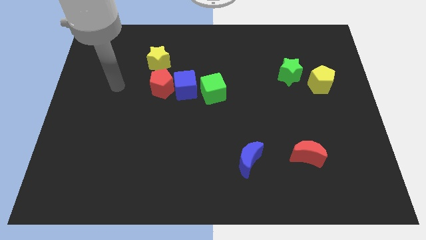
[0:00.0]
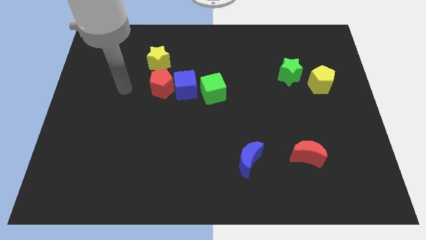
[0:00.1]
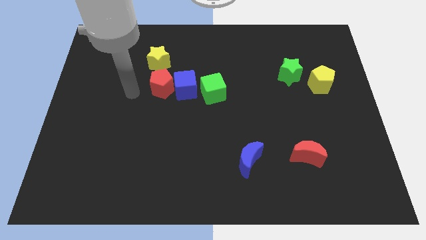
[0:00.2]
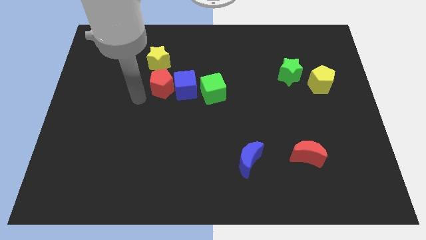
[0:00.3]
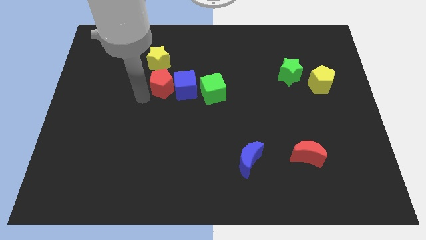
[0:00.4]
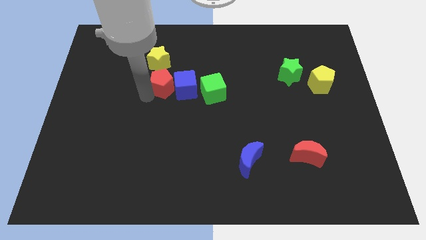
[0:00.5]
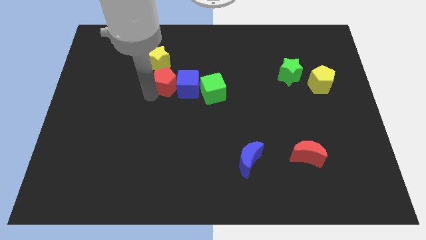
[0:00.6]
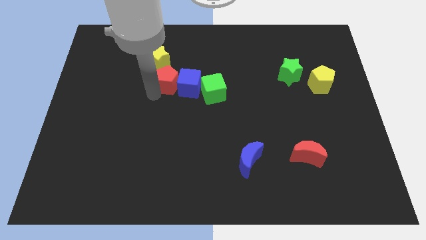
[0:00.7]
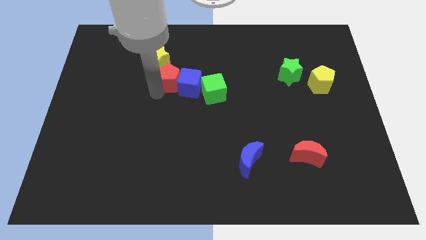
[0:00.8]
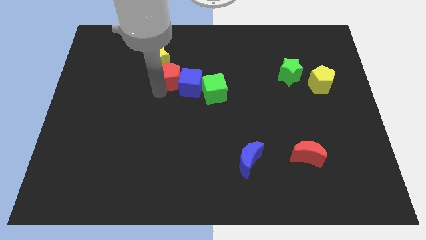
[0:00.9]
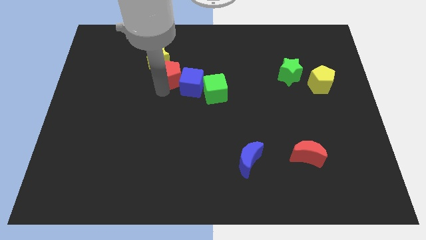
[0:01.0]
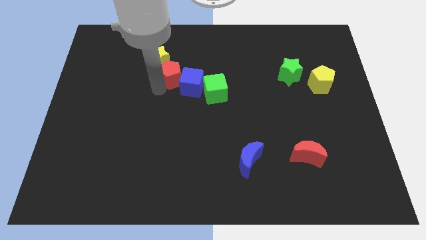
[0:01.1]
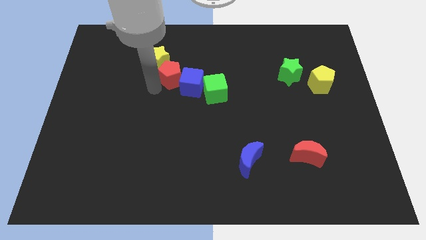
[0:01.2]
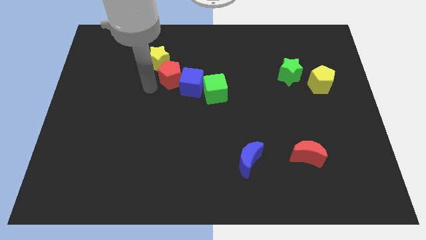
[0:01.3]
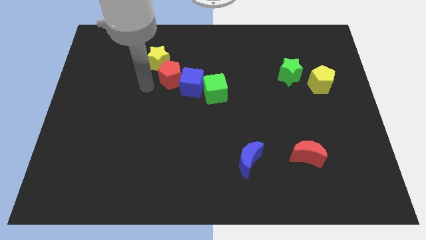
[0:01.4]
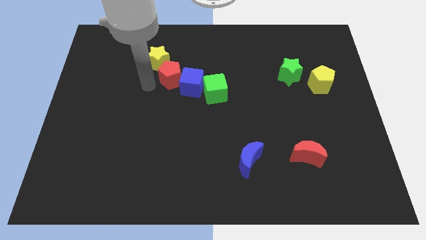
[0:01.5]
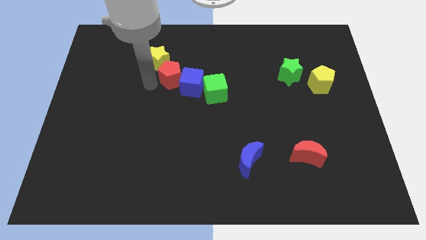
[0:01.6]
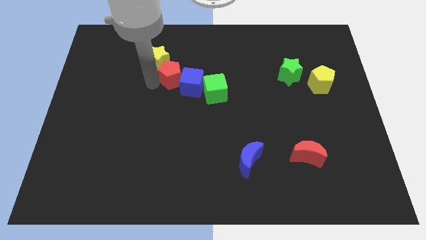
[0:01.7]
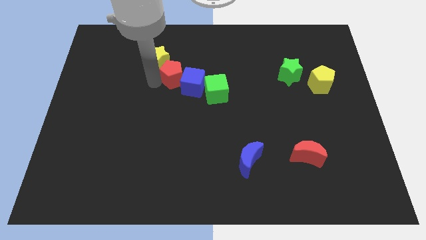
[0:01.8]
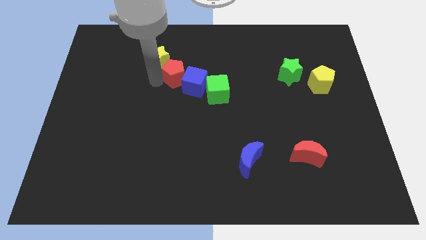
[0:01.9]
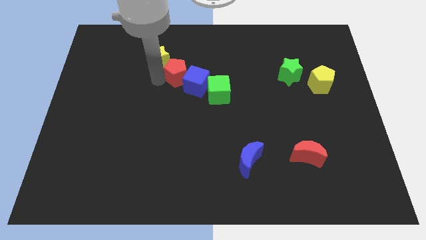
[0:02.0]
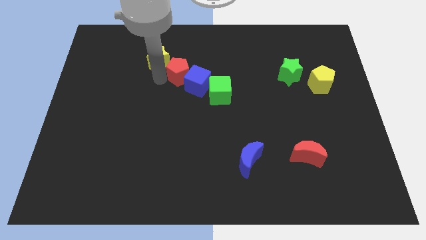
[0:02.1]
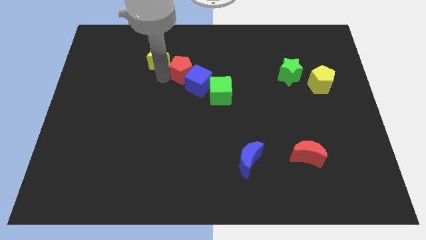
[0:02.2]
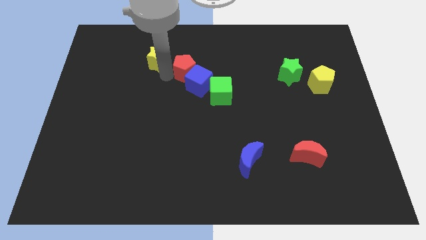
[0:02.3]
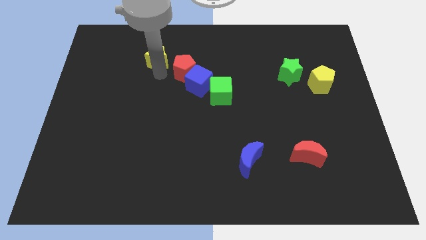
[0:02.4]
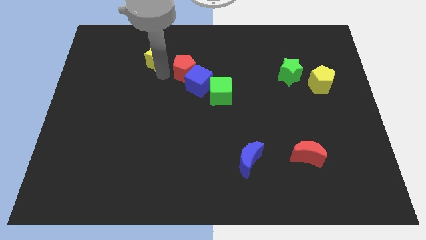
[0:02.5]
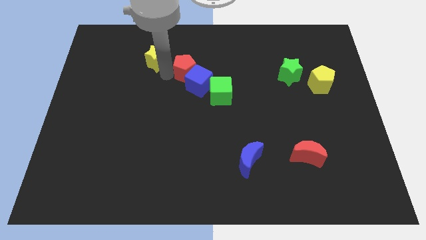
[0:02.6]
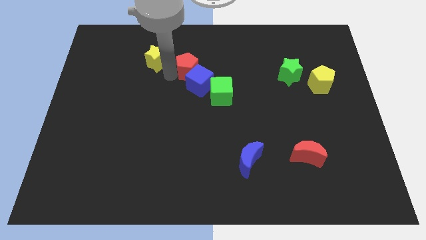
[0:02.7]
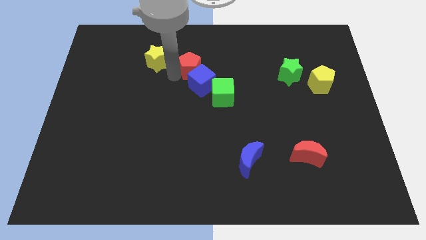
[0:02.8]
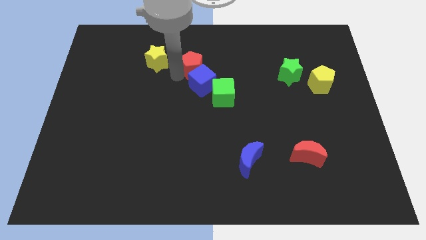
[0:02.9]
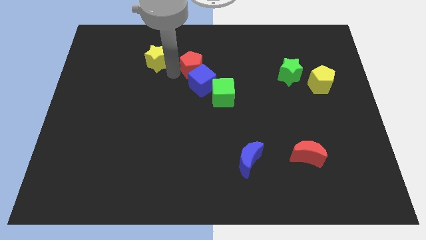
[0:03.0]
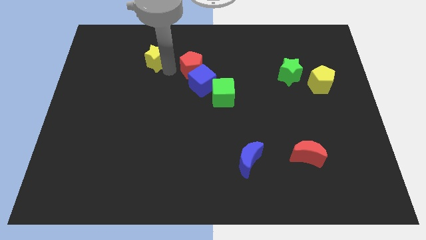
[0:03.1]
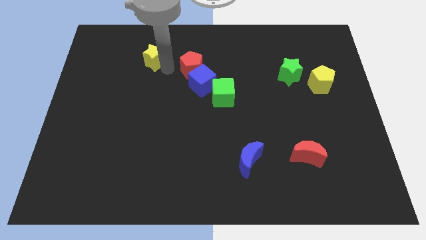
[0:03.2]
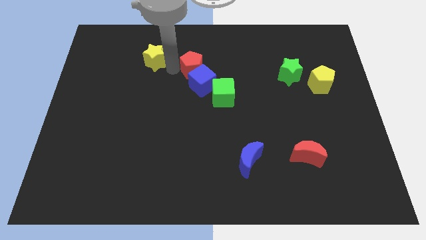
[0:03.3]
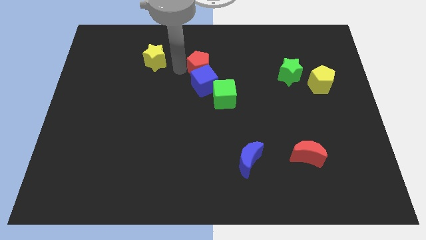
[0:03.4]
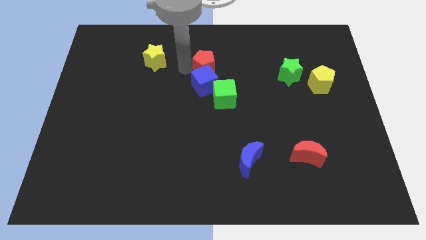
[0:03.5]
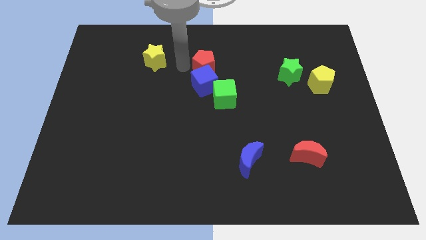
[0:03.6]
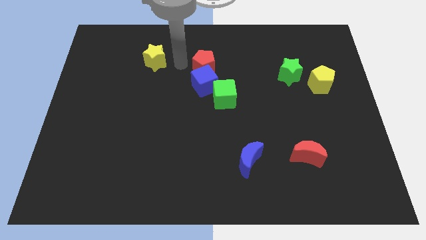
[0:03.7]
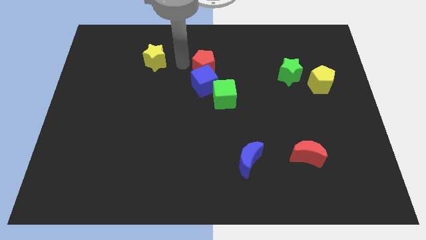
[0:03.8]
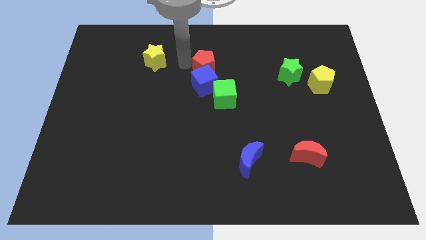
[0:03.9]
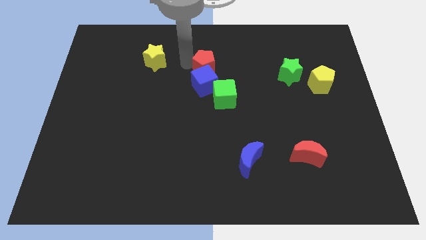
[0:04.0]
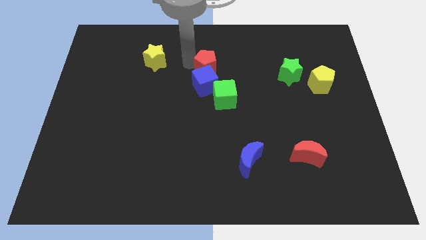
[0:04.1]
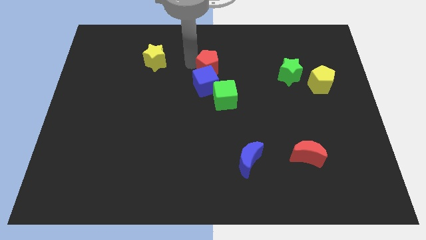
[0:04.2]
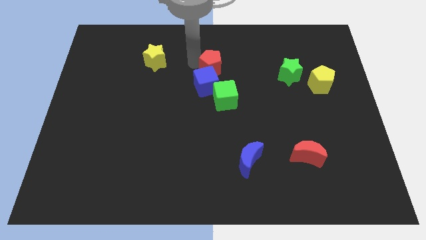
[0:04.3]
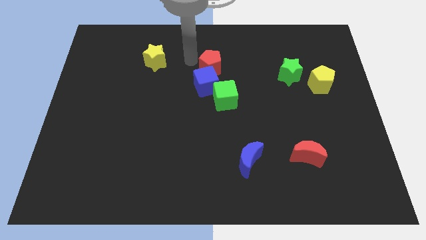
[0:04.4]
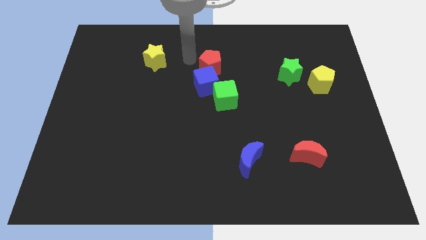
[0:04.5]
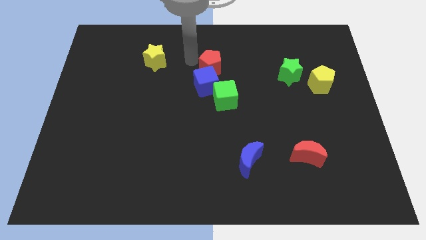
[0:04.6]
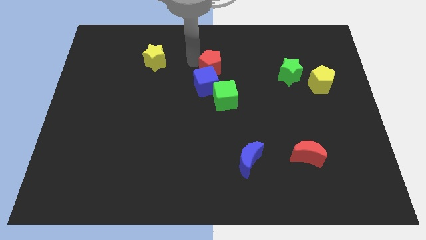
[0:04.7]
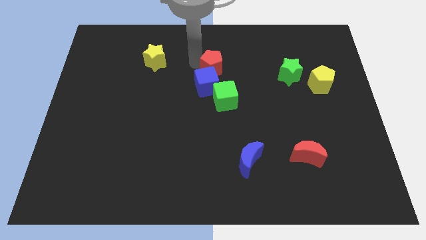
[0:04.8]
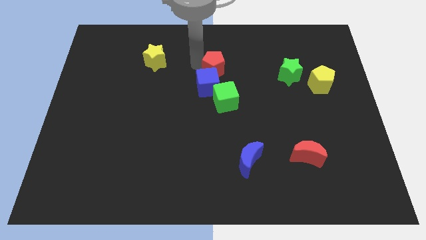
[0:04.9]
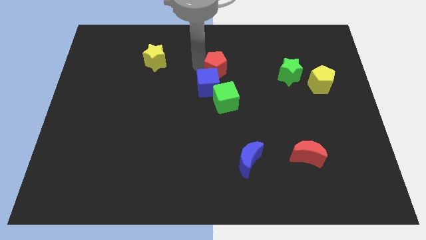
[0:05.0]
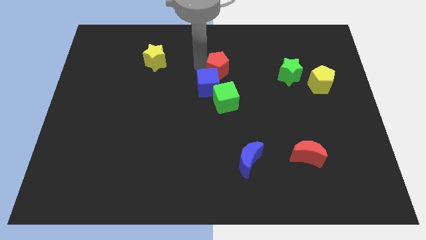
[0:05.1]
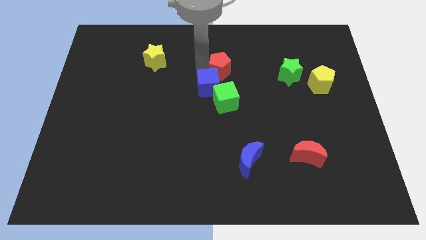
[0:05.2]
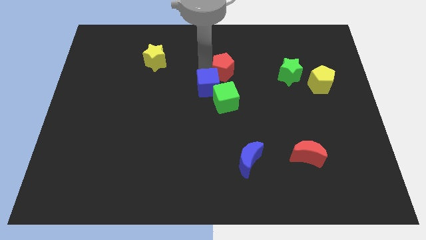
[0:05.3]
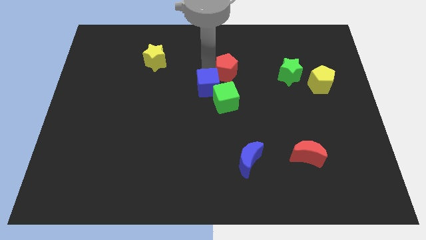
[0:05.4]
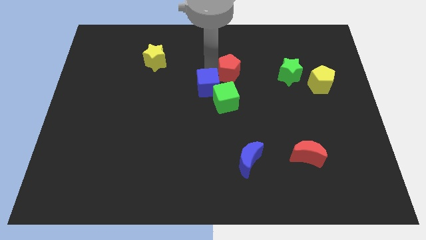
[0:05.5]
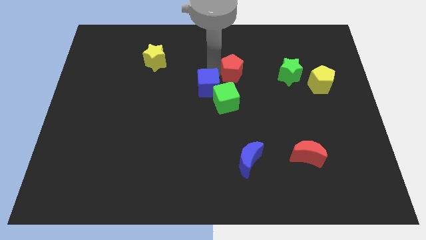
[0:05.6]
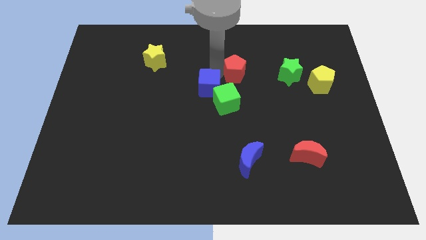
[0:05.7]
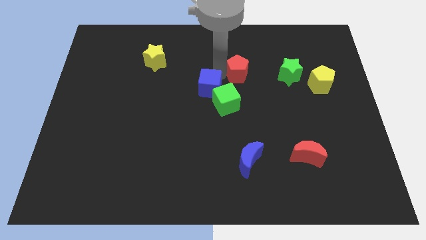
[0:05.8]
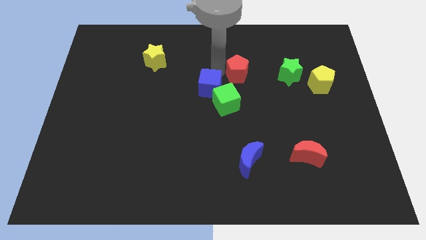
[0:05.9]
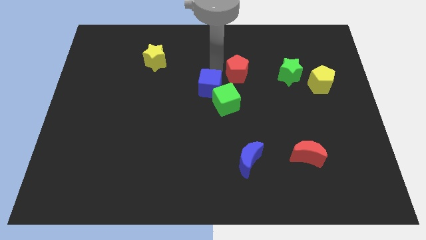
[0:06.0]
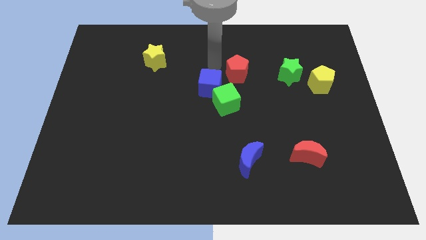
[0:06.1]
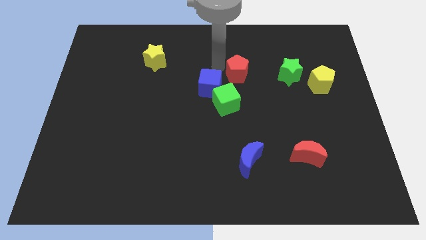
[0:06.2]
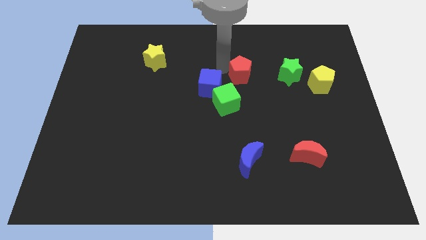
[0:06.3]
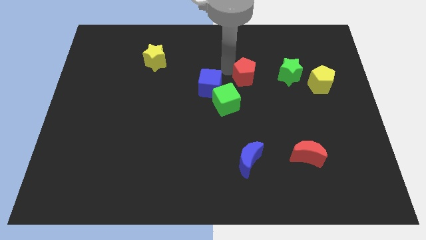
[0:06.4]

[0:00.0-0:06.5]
push the red pentagon right

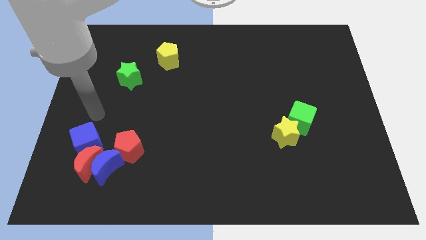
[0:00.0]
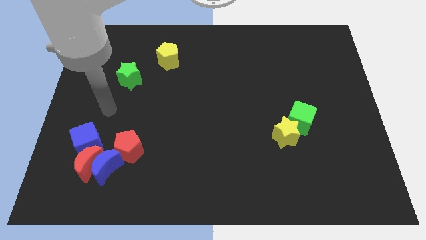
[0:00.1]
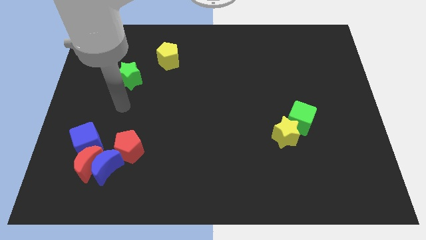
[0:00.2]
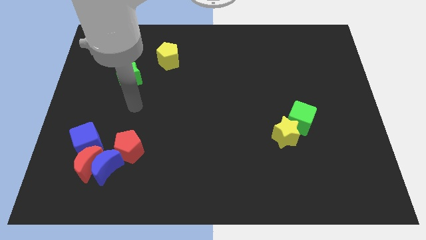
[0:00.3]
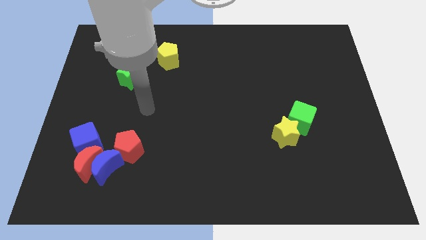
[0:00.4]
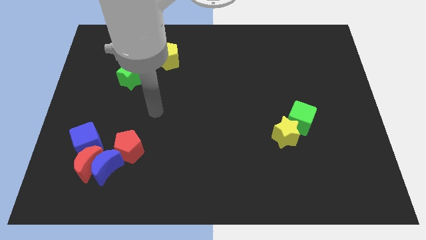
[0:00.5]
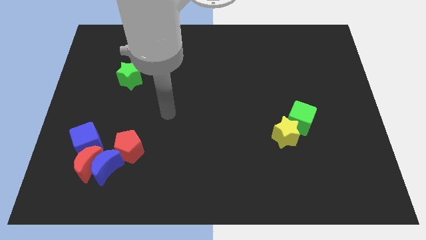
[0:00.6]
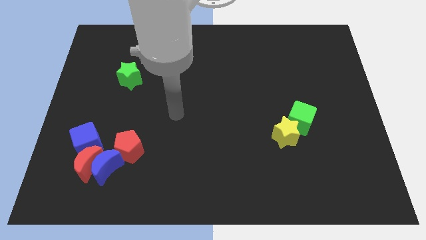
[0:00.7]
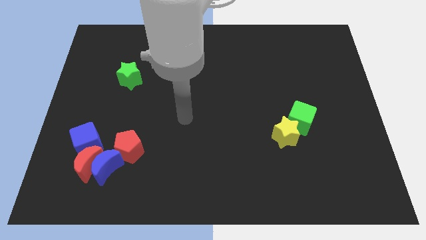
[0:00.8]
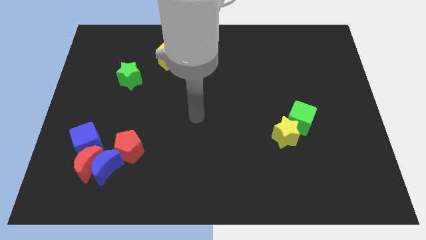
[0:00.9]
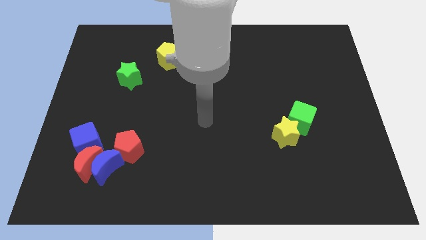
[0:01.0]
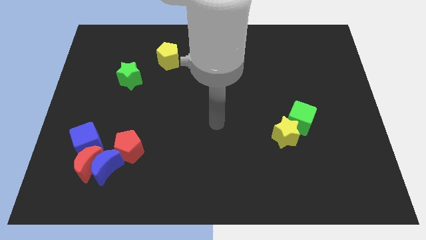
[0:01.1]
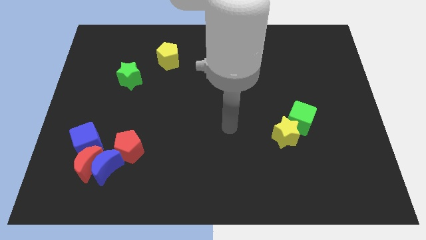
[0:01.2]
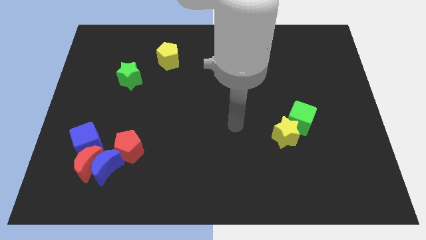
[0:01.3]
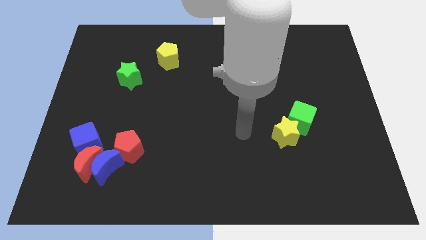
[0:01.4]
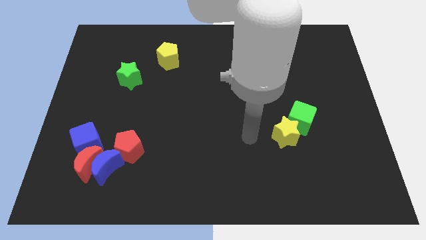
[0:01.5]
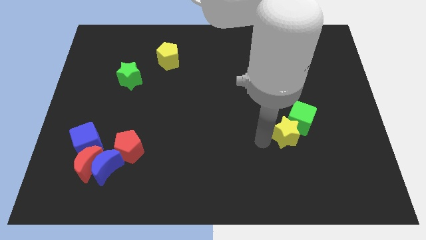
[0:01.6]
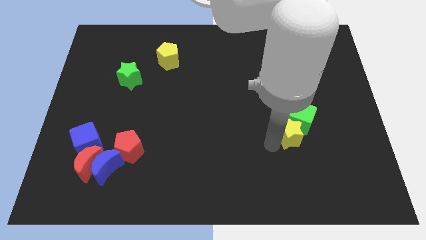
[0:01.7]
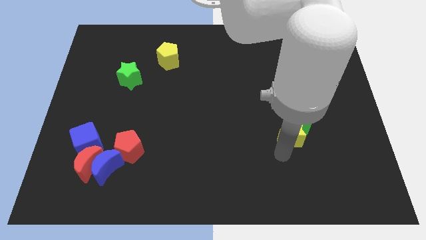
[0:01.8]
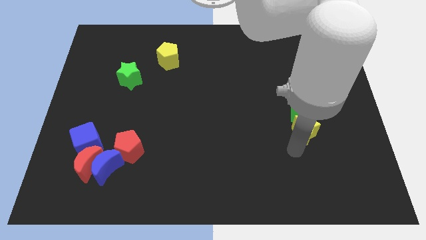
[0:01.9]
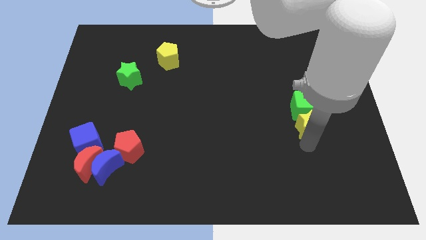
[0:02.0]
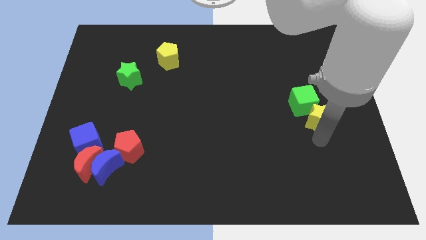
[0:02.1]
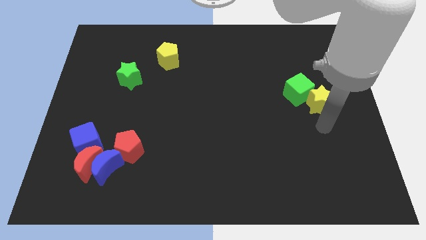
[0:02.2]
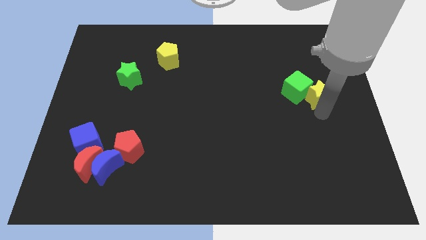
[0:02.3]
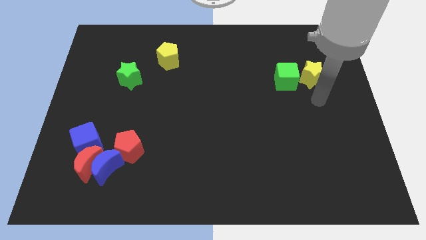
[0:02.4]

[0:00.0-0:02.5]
slightly move the green cube upwards and left diagonally
